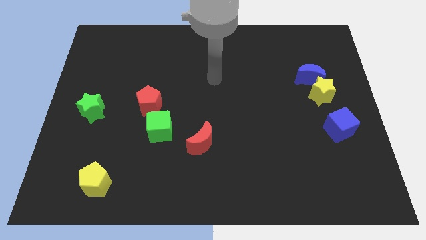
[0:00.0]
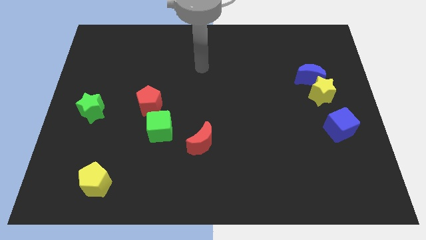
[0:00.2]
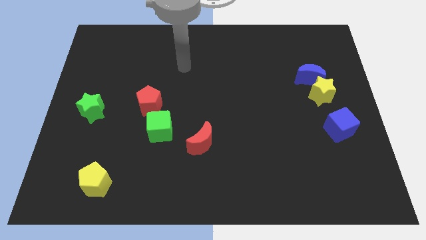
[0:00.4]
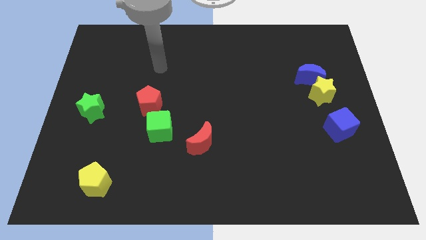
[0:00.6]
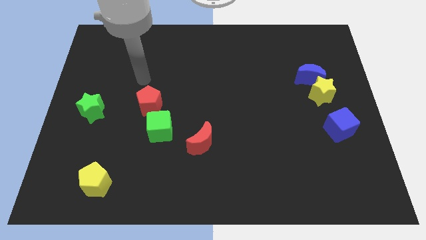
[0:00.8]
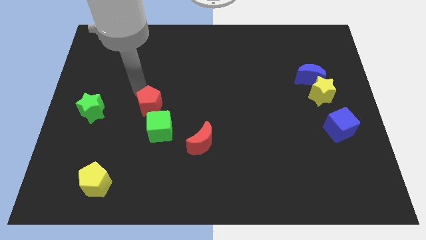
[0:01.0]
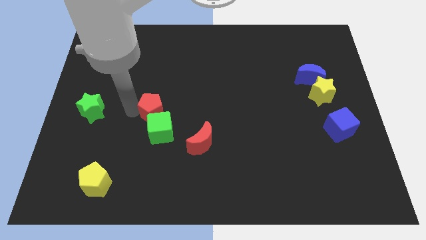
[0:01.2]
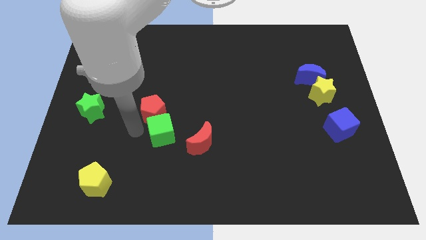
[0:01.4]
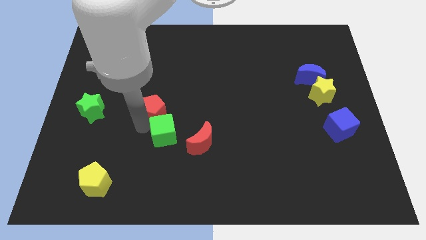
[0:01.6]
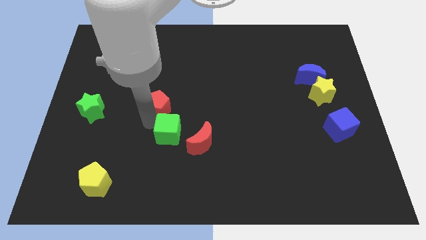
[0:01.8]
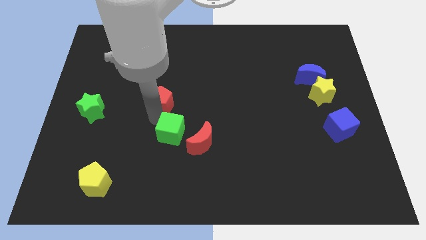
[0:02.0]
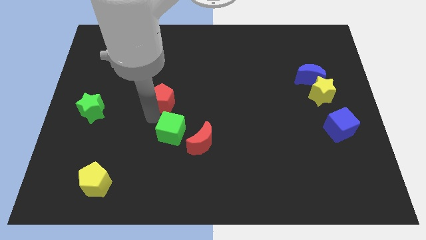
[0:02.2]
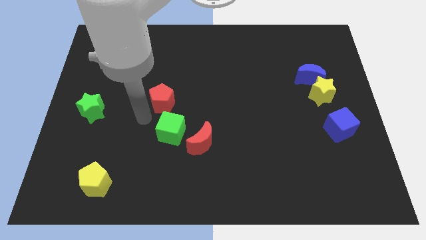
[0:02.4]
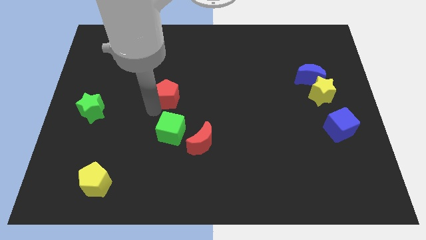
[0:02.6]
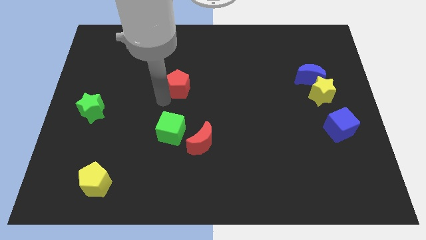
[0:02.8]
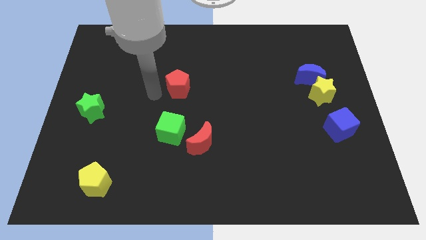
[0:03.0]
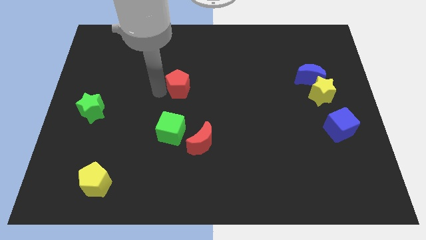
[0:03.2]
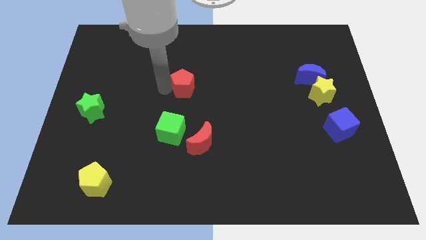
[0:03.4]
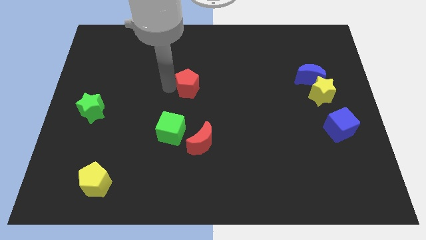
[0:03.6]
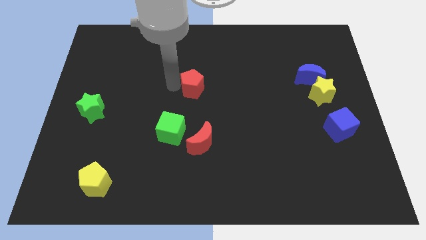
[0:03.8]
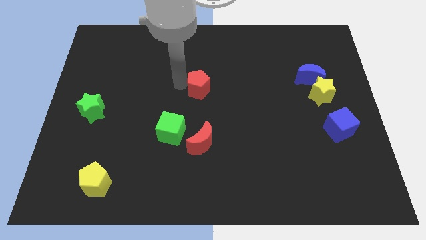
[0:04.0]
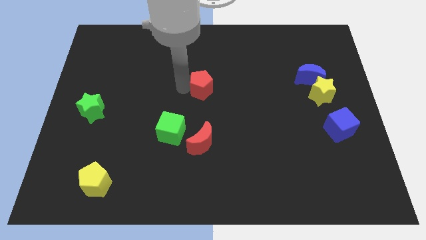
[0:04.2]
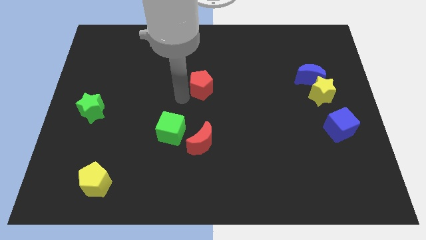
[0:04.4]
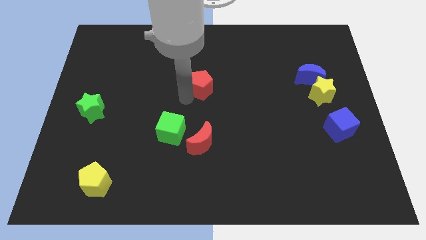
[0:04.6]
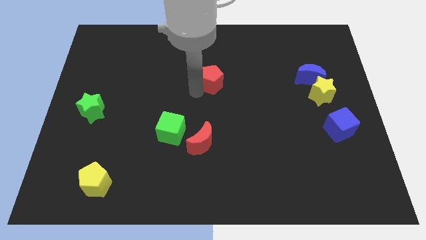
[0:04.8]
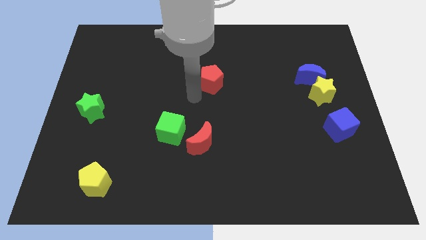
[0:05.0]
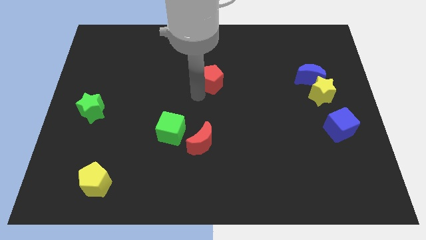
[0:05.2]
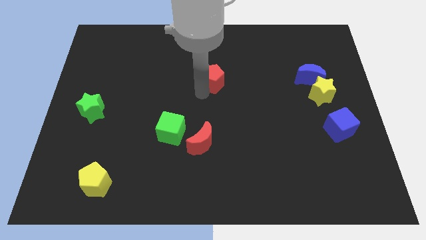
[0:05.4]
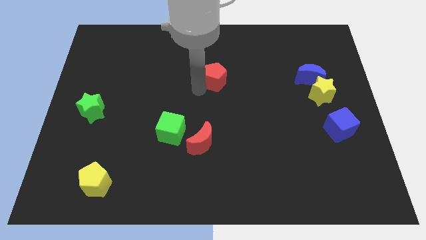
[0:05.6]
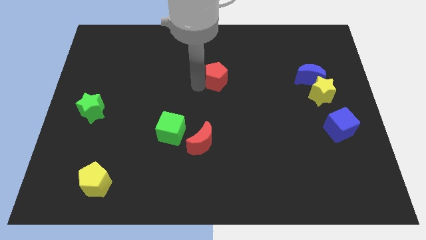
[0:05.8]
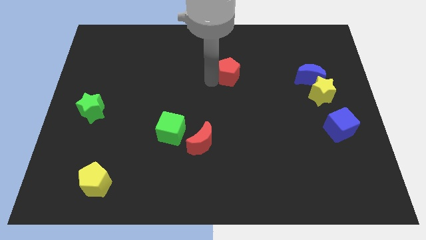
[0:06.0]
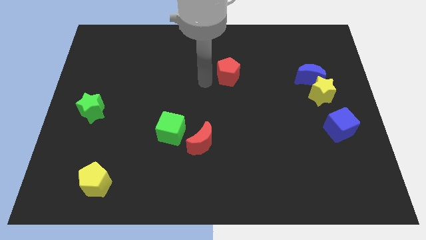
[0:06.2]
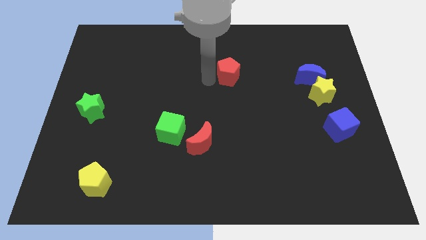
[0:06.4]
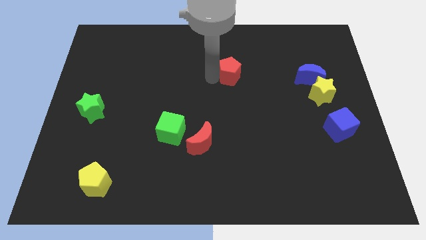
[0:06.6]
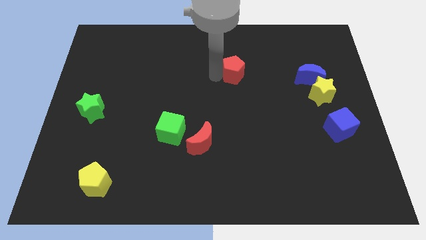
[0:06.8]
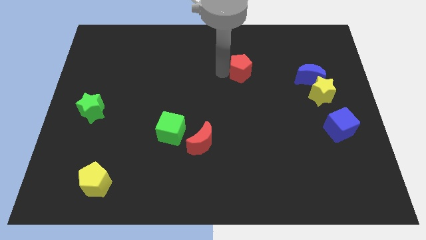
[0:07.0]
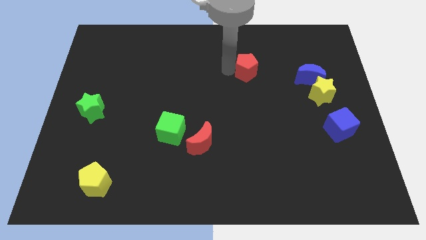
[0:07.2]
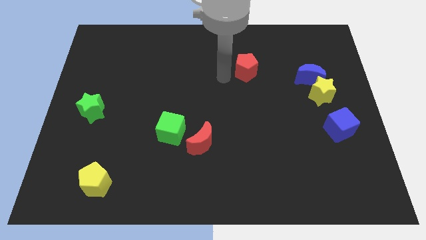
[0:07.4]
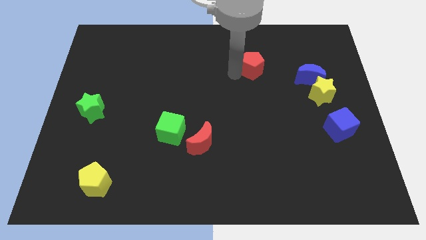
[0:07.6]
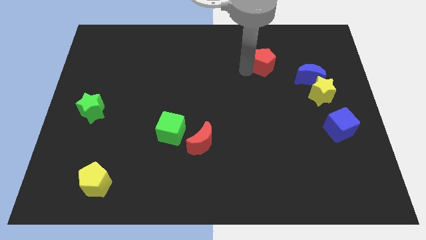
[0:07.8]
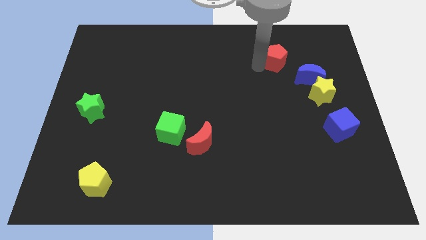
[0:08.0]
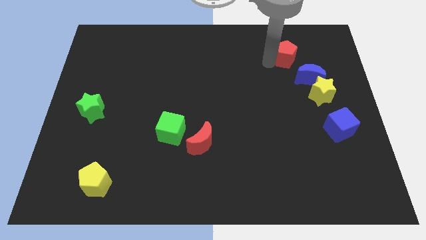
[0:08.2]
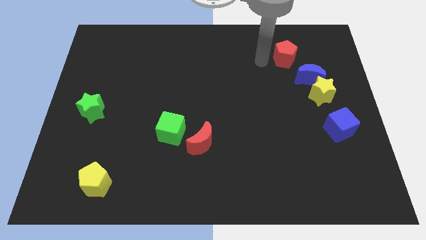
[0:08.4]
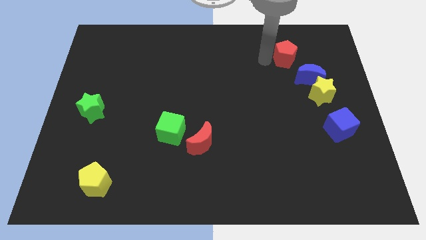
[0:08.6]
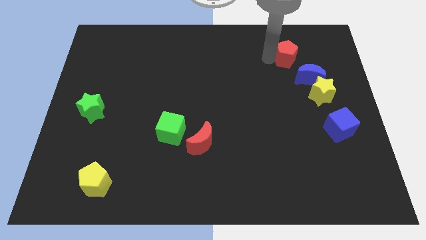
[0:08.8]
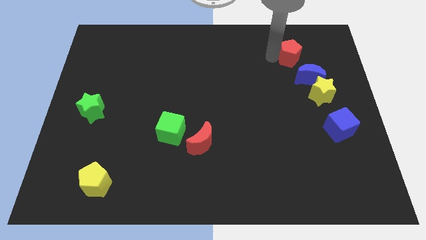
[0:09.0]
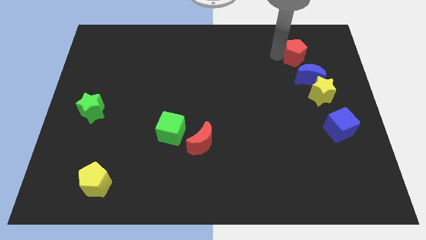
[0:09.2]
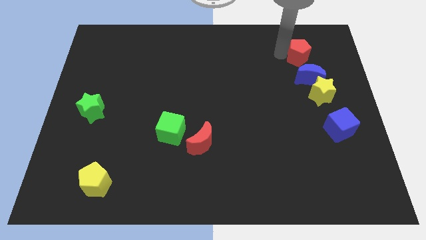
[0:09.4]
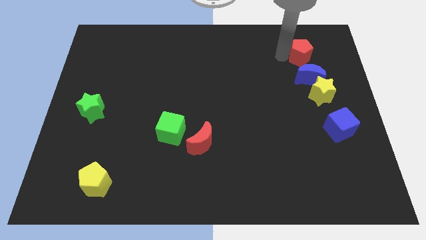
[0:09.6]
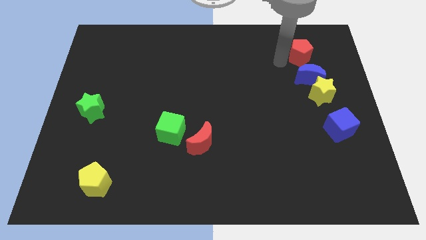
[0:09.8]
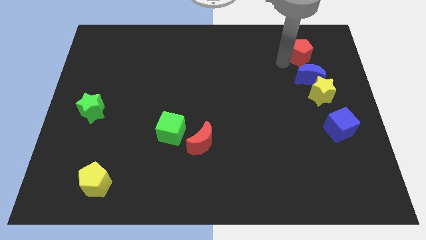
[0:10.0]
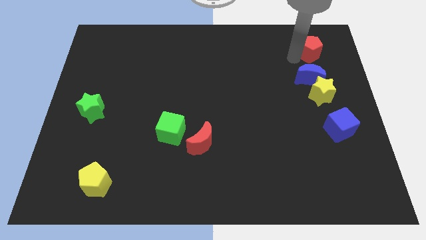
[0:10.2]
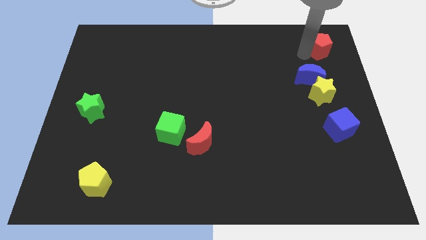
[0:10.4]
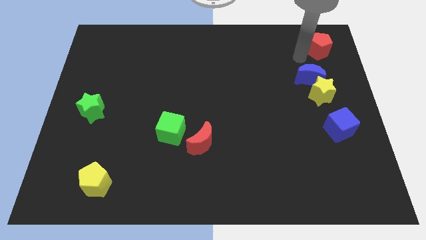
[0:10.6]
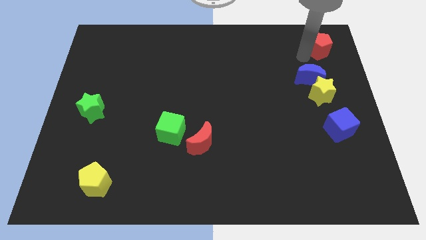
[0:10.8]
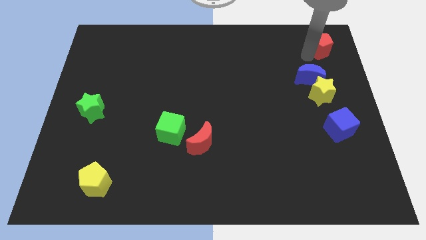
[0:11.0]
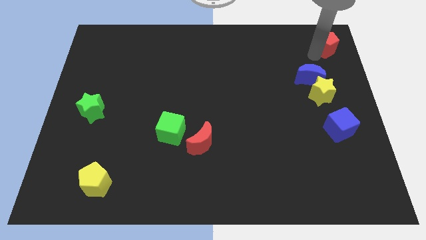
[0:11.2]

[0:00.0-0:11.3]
slide the red pentagon to the upper right corner

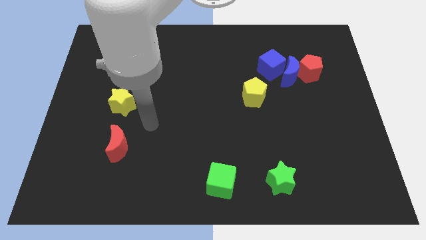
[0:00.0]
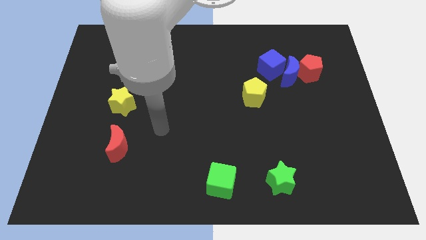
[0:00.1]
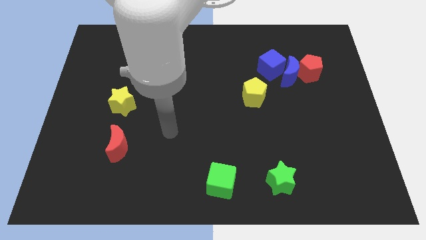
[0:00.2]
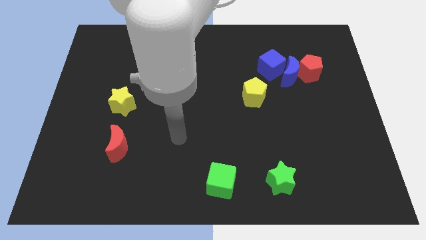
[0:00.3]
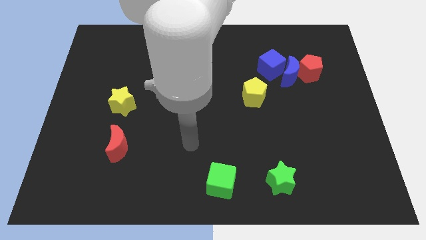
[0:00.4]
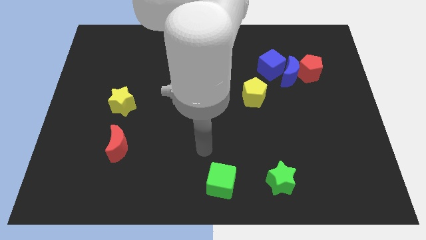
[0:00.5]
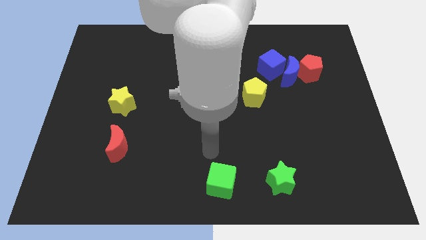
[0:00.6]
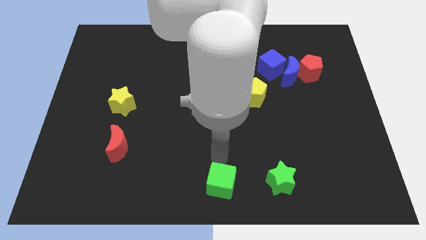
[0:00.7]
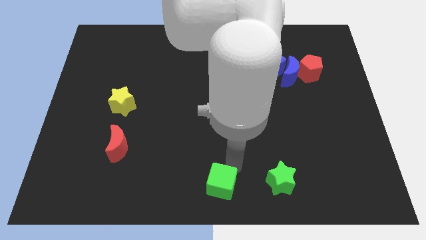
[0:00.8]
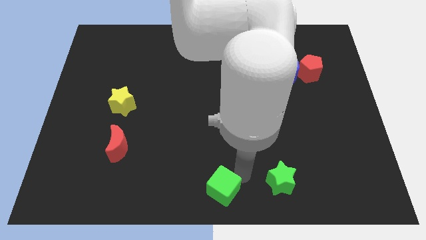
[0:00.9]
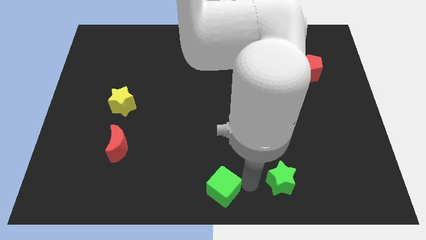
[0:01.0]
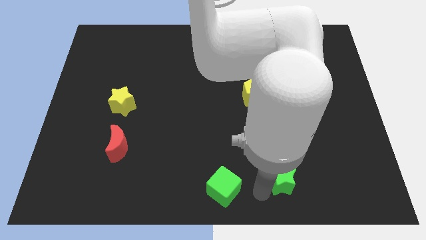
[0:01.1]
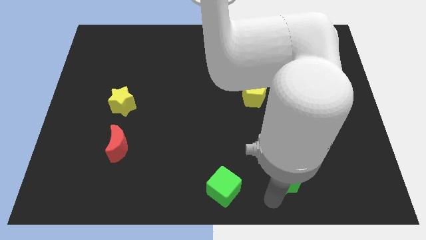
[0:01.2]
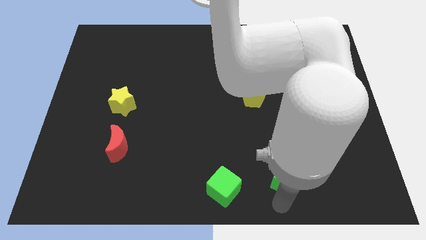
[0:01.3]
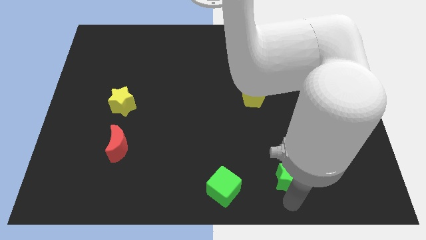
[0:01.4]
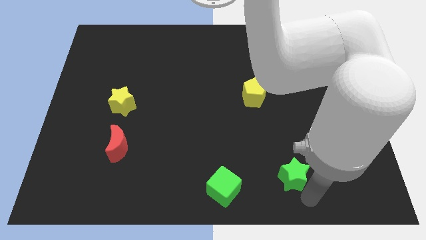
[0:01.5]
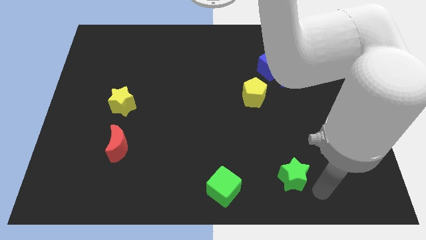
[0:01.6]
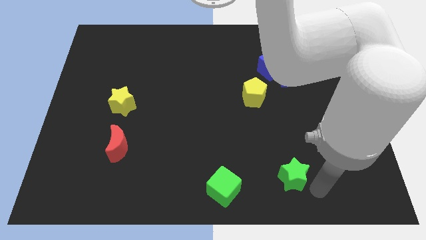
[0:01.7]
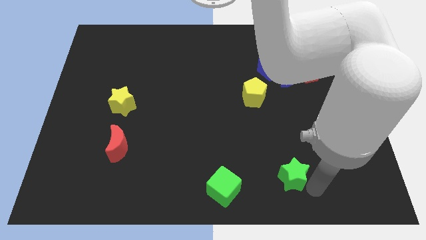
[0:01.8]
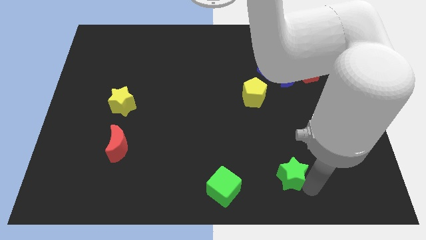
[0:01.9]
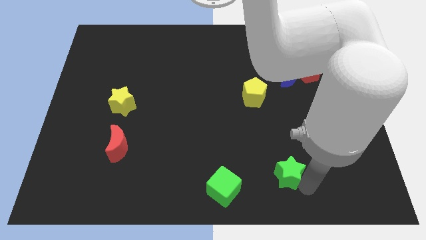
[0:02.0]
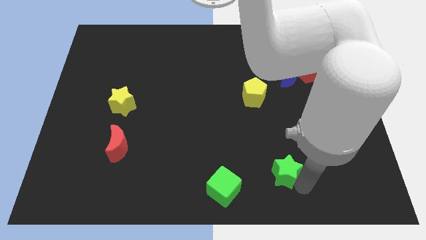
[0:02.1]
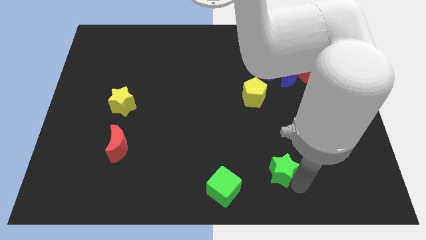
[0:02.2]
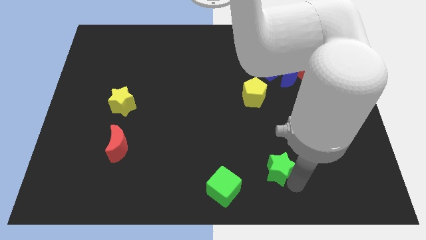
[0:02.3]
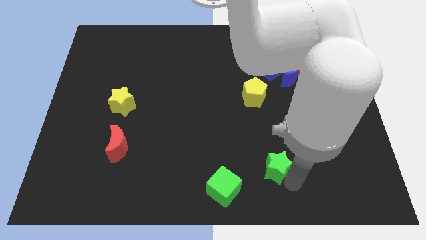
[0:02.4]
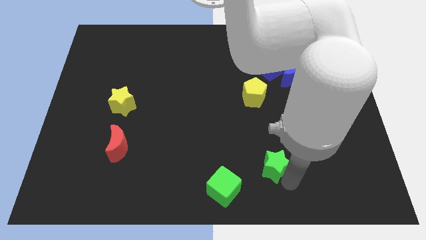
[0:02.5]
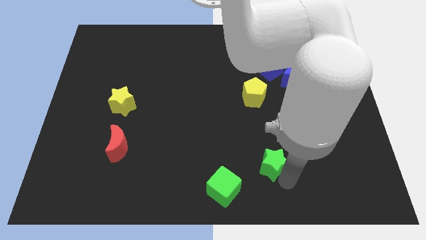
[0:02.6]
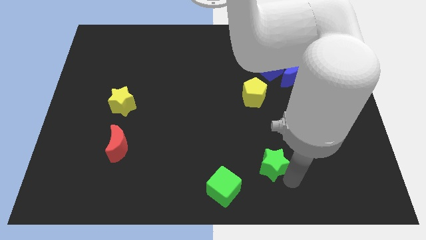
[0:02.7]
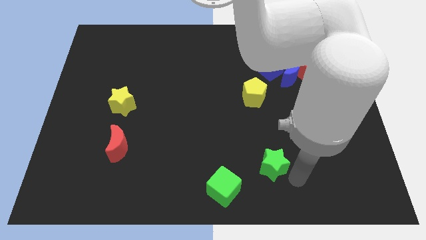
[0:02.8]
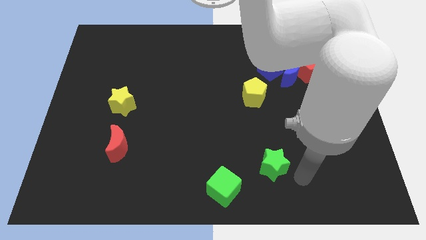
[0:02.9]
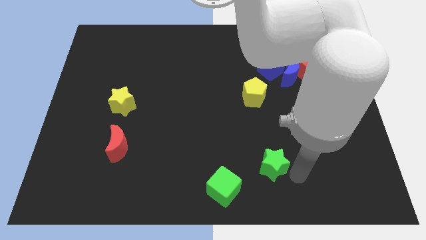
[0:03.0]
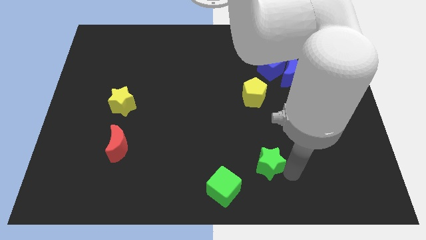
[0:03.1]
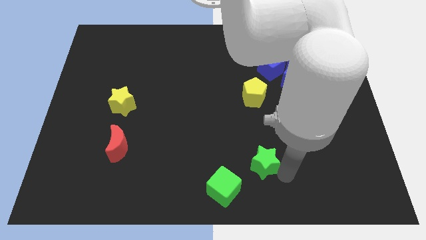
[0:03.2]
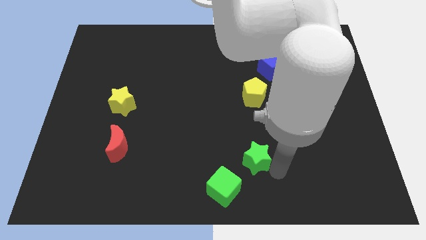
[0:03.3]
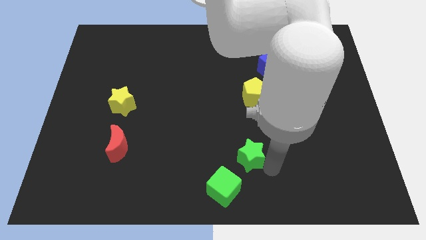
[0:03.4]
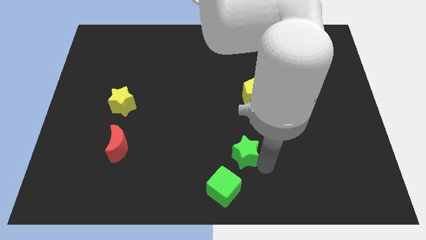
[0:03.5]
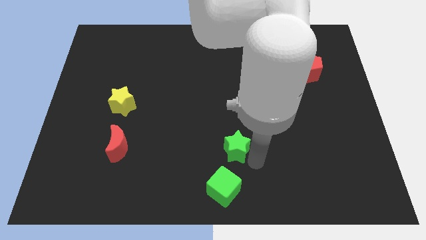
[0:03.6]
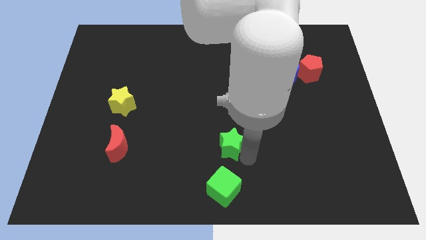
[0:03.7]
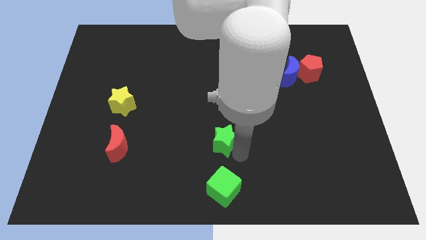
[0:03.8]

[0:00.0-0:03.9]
push the green star to the center of the board
